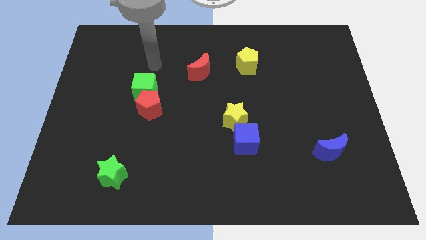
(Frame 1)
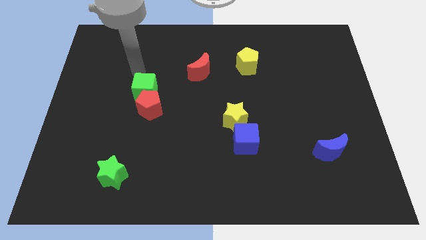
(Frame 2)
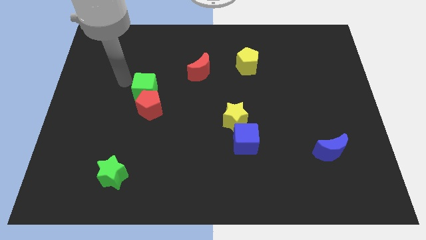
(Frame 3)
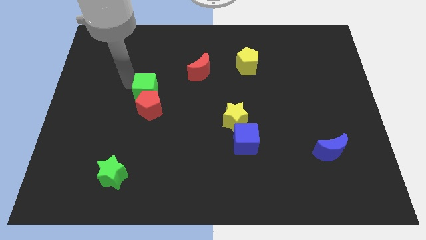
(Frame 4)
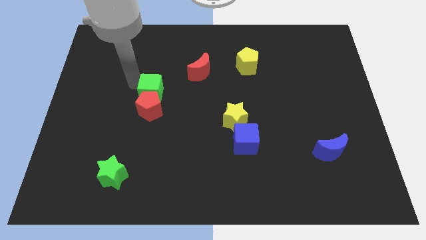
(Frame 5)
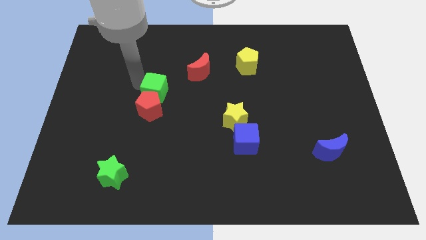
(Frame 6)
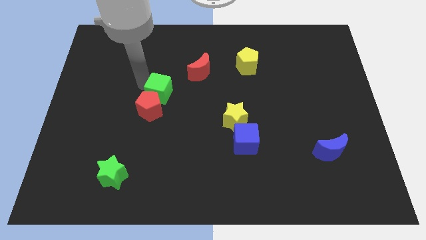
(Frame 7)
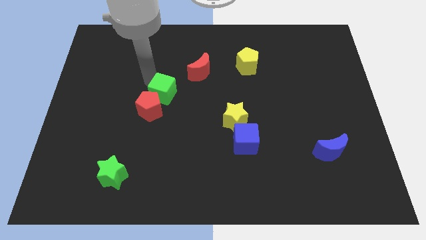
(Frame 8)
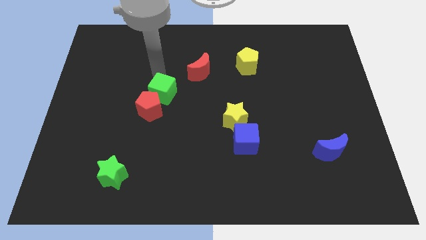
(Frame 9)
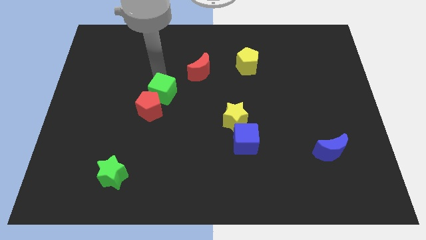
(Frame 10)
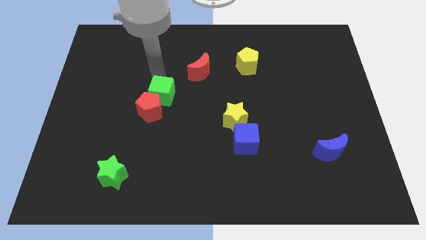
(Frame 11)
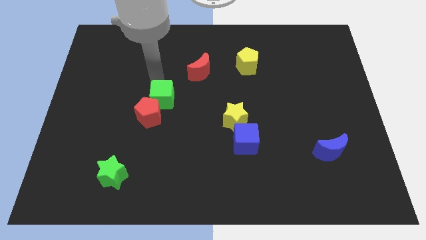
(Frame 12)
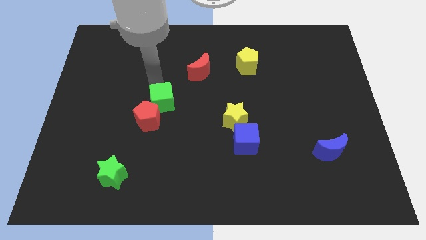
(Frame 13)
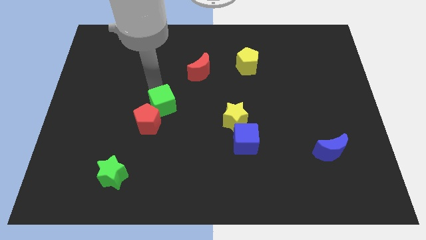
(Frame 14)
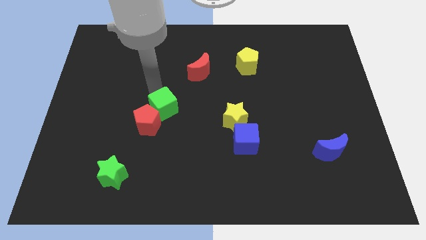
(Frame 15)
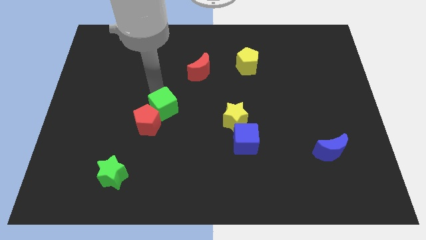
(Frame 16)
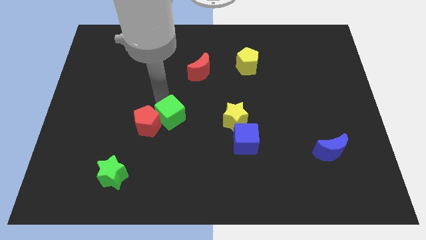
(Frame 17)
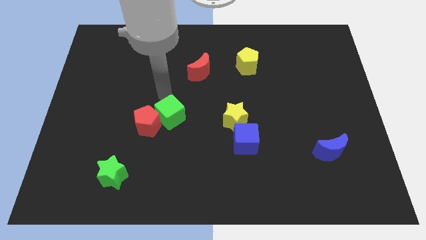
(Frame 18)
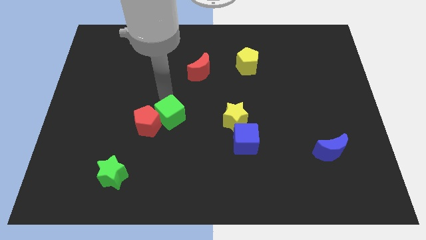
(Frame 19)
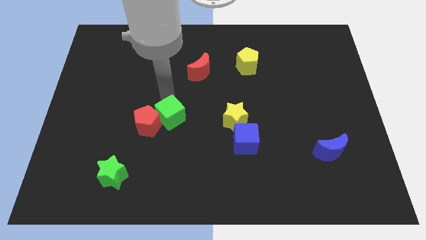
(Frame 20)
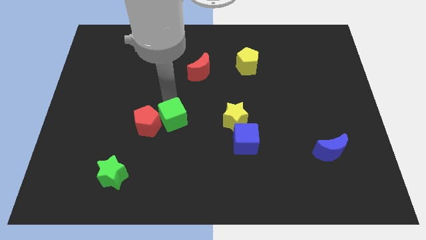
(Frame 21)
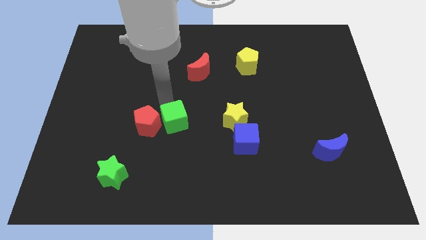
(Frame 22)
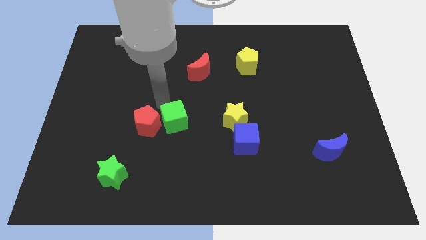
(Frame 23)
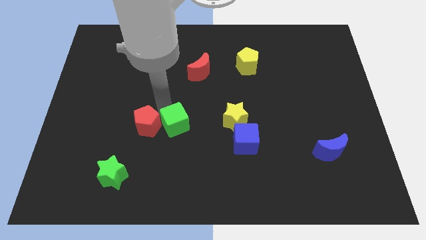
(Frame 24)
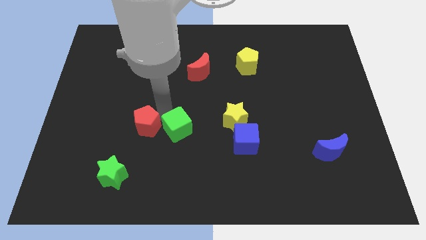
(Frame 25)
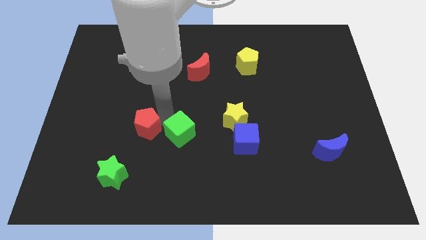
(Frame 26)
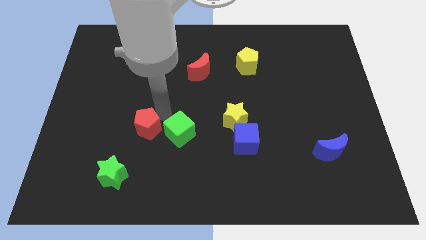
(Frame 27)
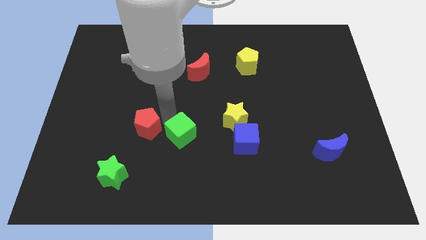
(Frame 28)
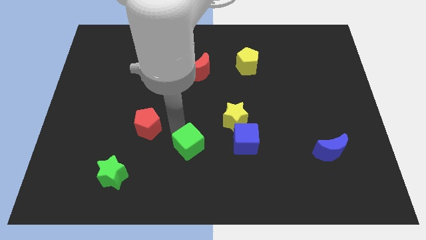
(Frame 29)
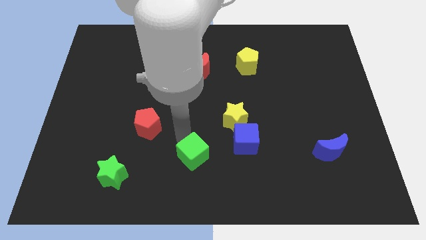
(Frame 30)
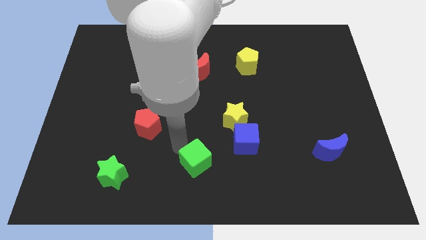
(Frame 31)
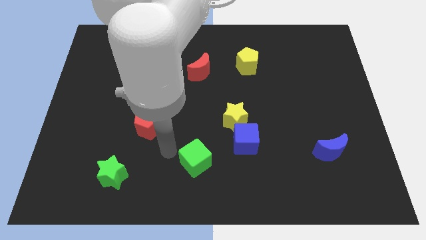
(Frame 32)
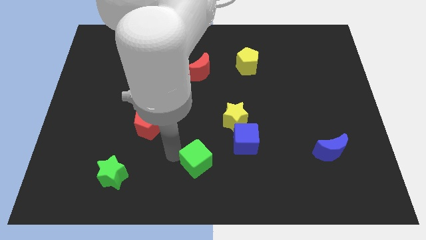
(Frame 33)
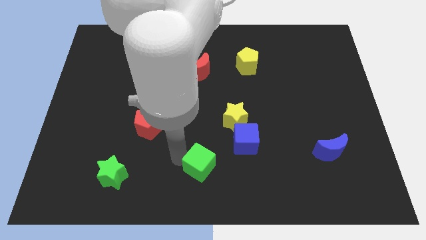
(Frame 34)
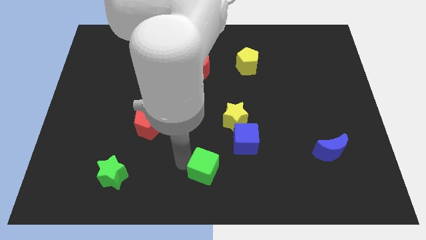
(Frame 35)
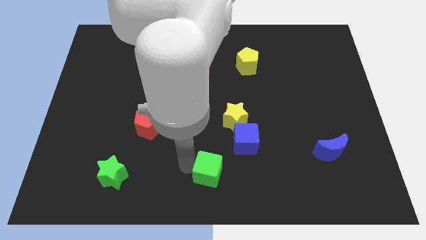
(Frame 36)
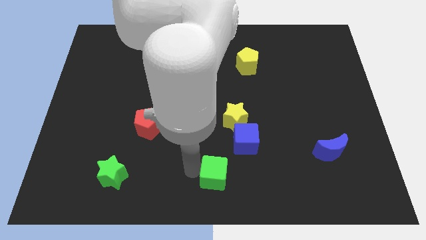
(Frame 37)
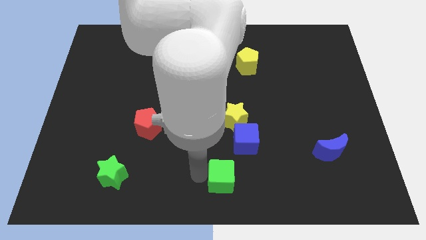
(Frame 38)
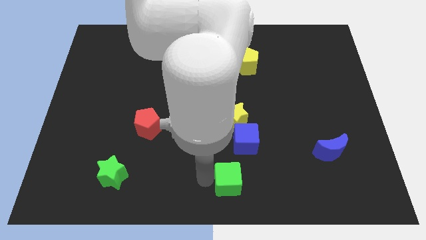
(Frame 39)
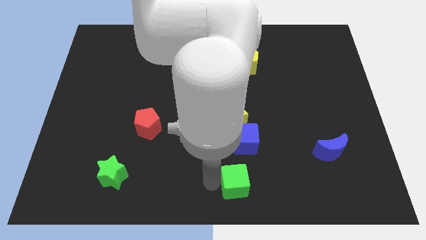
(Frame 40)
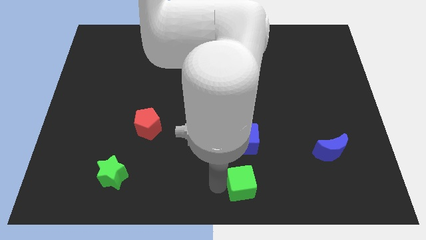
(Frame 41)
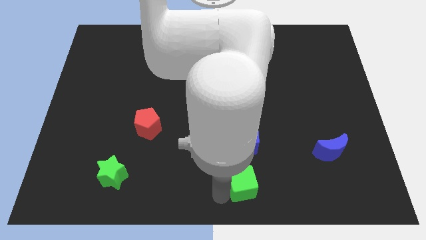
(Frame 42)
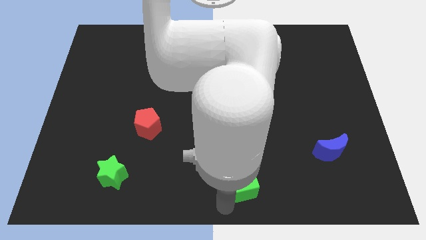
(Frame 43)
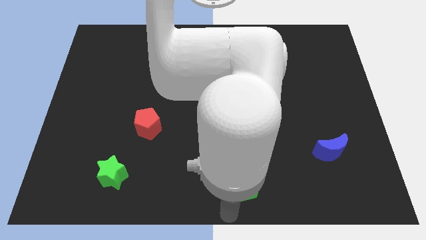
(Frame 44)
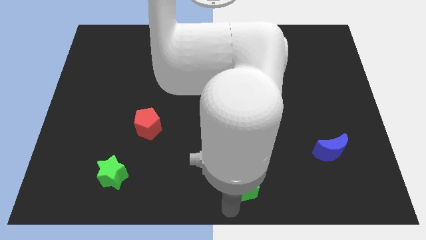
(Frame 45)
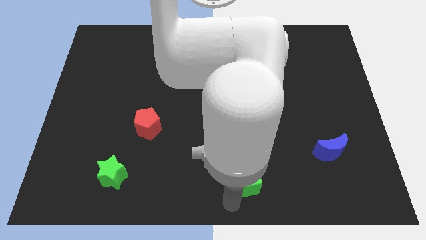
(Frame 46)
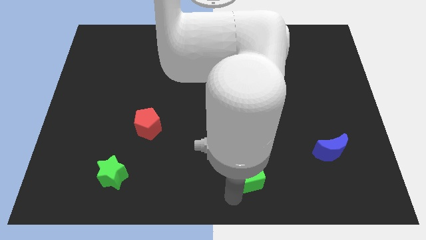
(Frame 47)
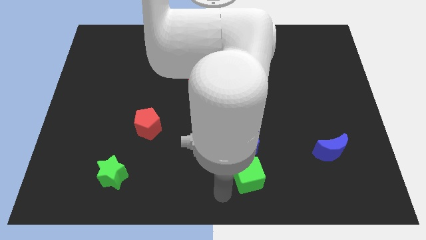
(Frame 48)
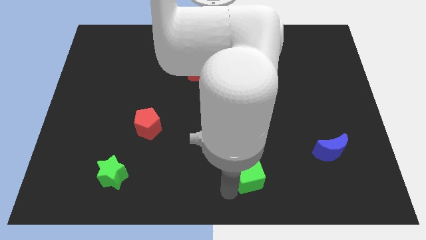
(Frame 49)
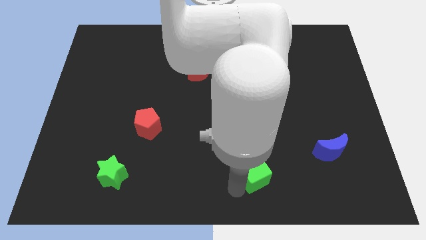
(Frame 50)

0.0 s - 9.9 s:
move the green cube to the bottom right of the blue cube

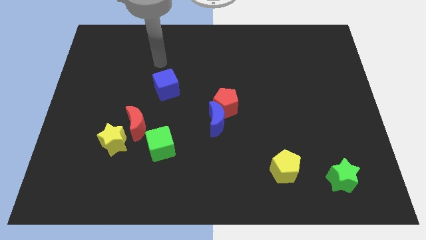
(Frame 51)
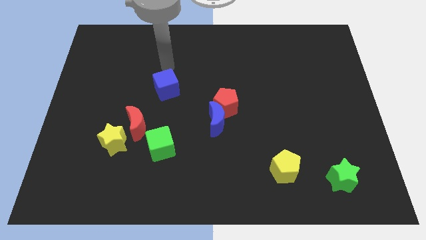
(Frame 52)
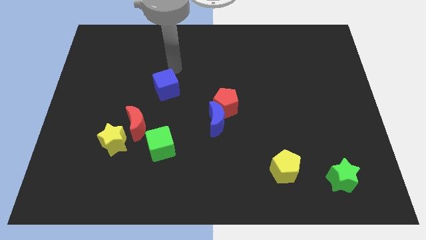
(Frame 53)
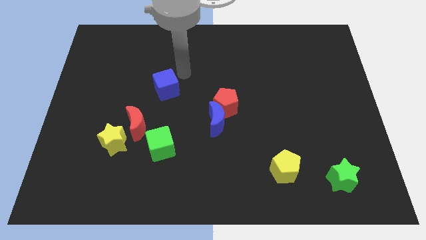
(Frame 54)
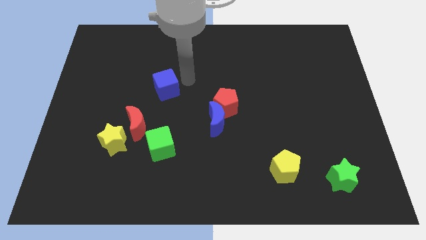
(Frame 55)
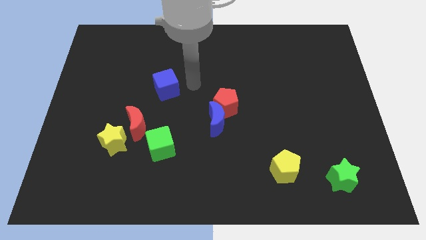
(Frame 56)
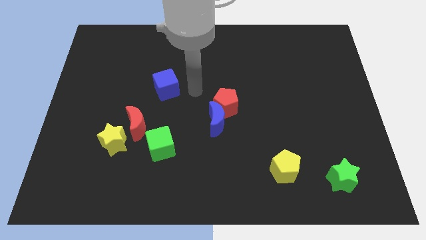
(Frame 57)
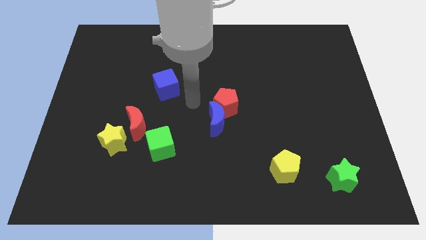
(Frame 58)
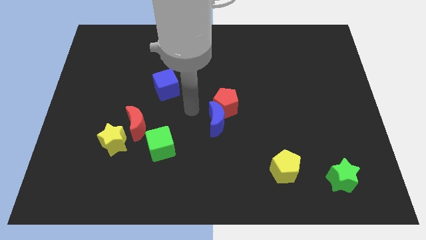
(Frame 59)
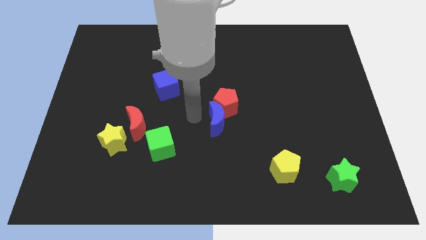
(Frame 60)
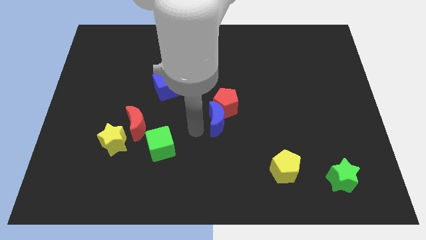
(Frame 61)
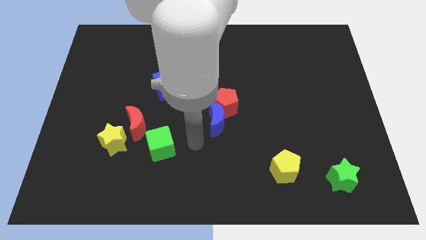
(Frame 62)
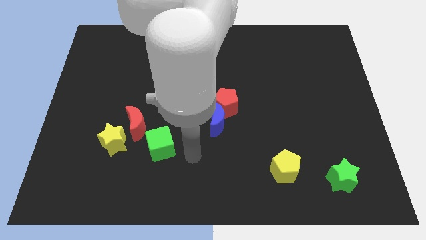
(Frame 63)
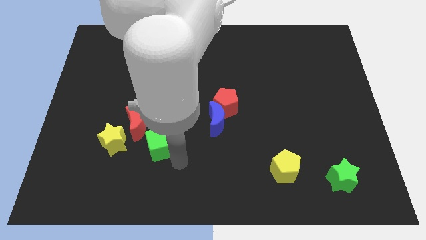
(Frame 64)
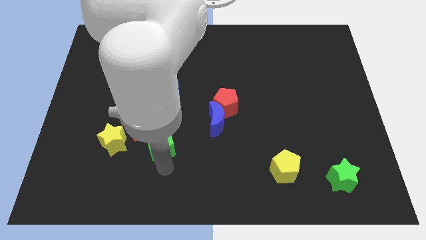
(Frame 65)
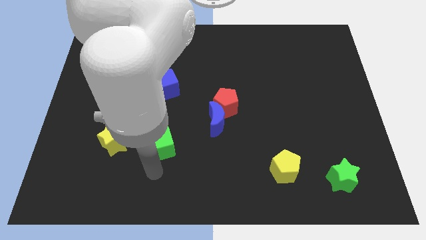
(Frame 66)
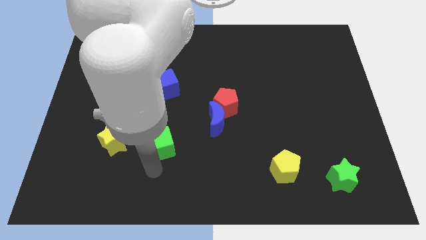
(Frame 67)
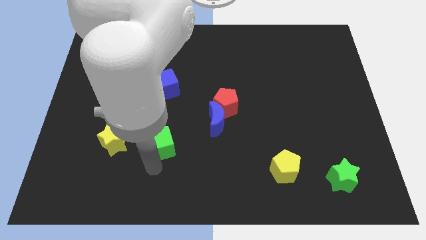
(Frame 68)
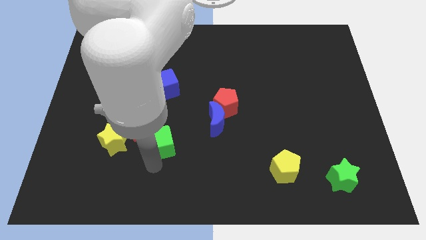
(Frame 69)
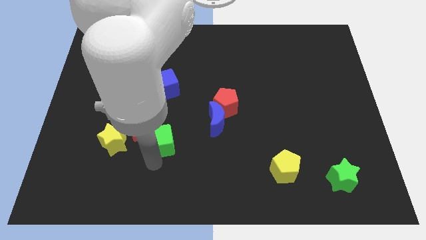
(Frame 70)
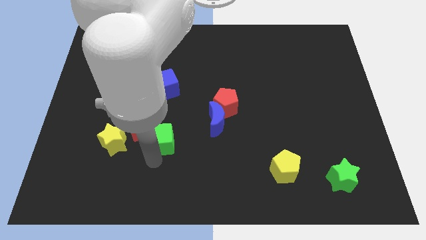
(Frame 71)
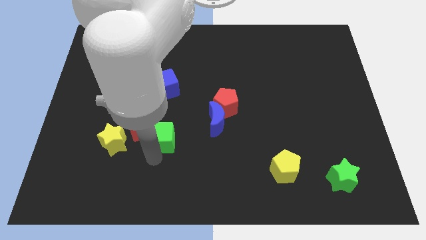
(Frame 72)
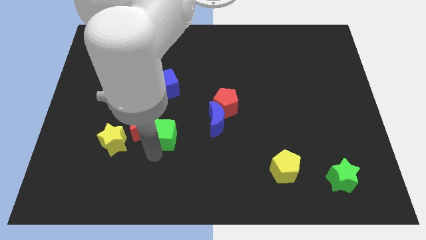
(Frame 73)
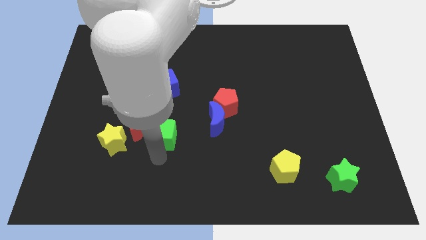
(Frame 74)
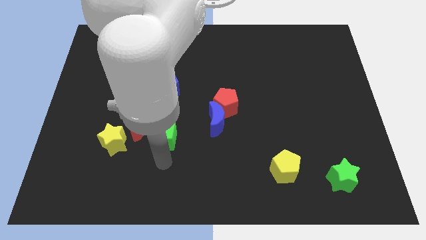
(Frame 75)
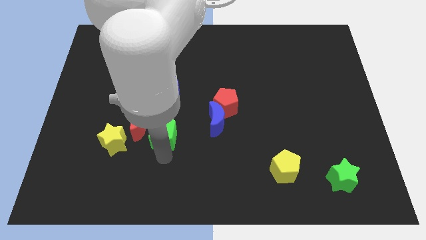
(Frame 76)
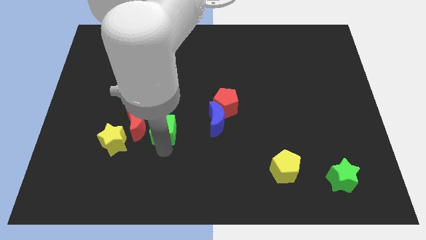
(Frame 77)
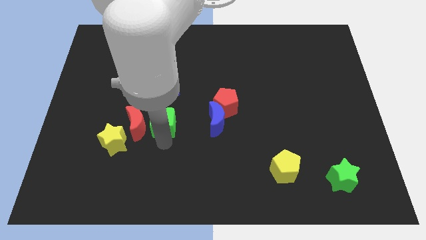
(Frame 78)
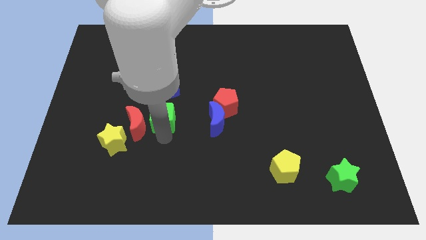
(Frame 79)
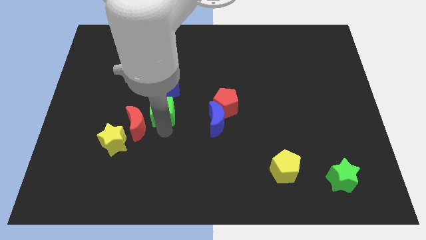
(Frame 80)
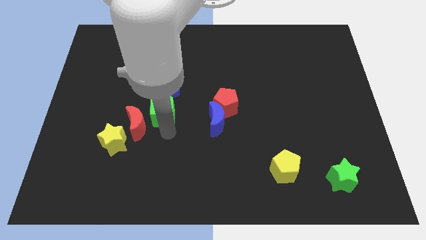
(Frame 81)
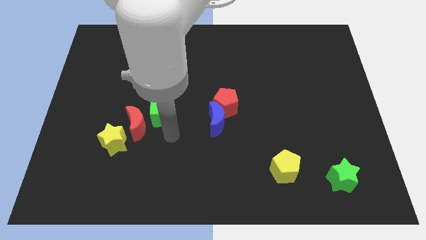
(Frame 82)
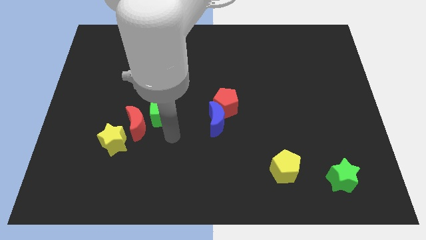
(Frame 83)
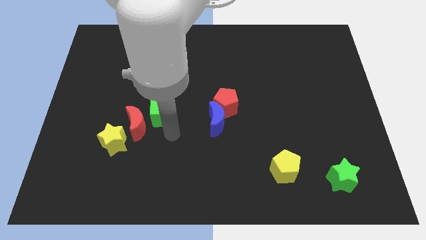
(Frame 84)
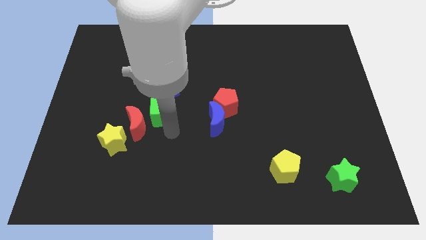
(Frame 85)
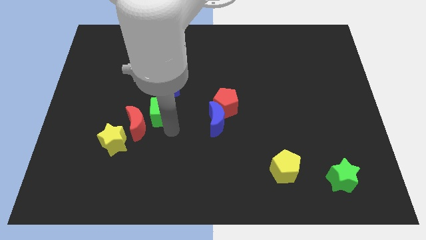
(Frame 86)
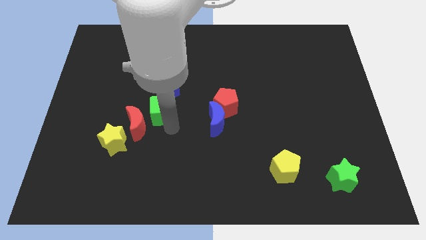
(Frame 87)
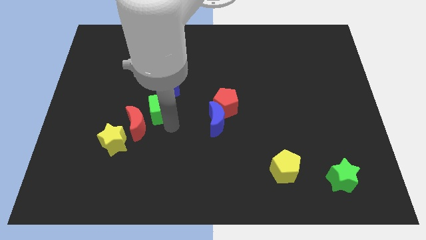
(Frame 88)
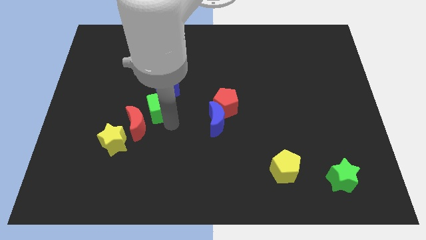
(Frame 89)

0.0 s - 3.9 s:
put the green cube above the red moon
